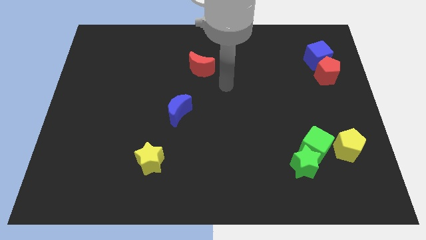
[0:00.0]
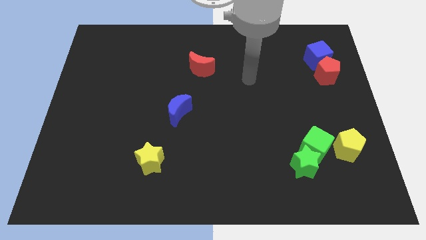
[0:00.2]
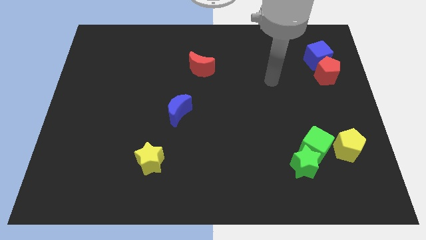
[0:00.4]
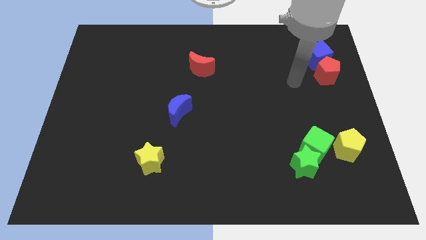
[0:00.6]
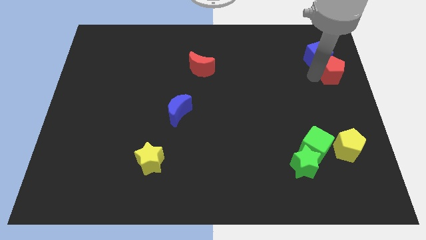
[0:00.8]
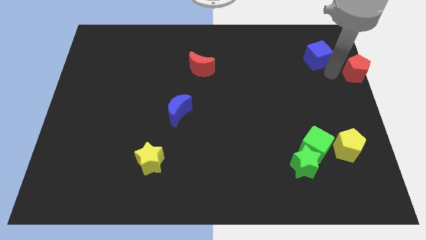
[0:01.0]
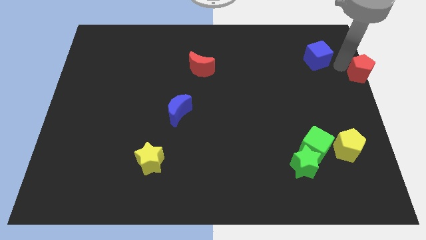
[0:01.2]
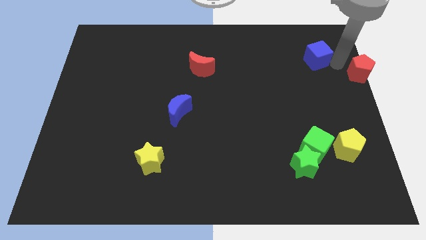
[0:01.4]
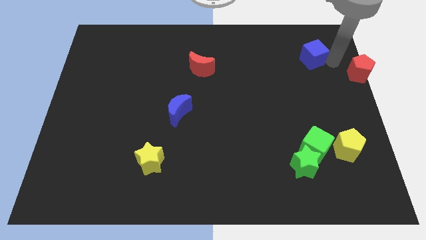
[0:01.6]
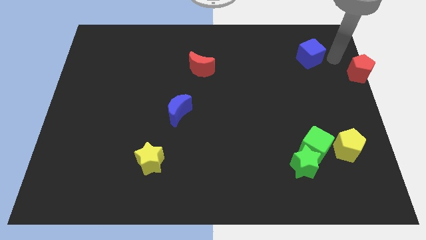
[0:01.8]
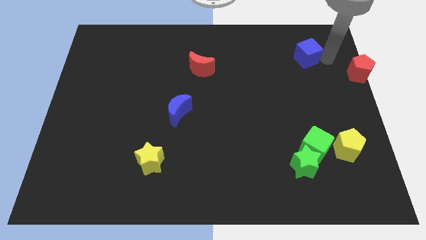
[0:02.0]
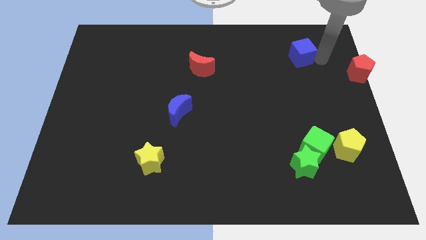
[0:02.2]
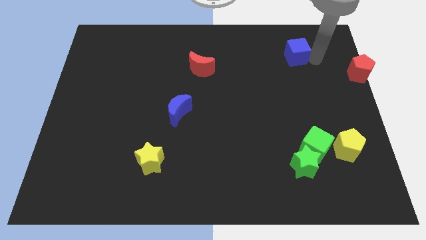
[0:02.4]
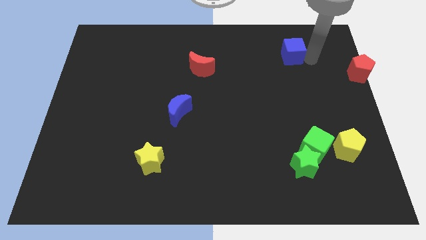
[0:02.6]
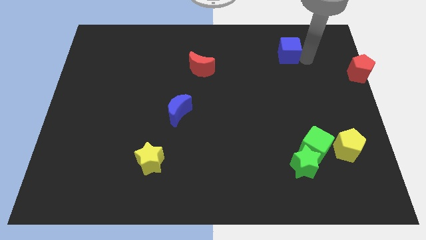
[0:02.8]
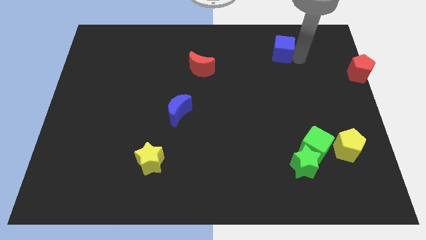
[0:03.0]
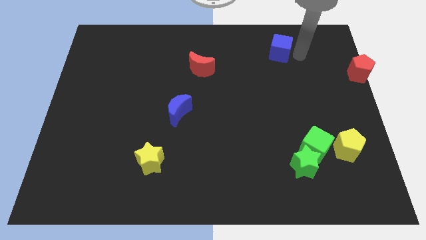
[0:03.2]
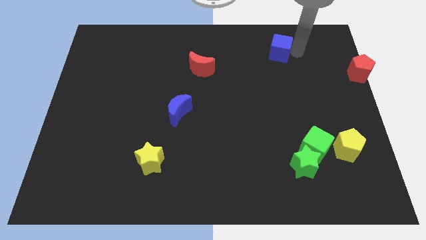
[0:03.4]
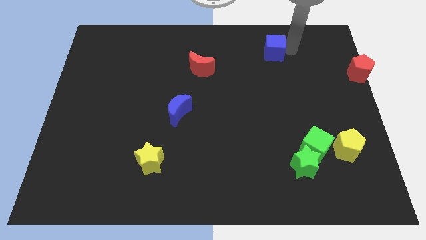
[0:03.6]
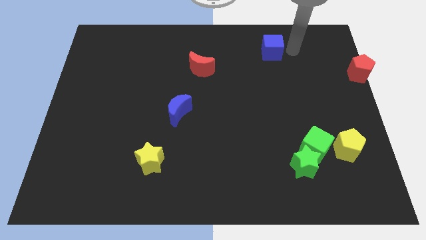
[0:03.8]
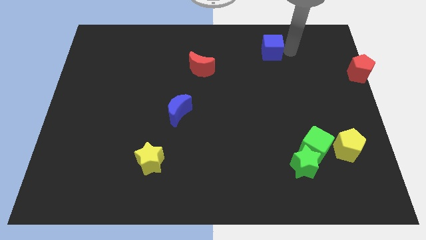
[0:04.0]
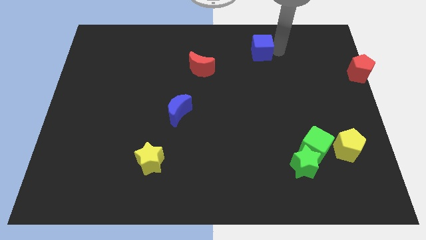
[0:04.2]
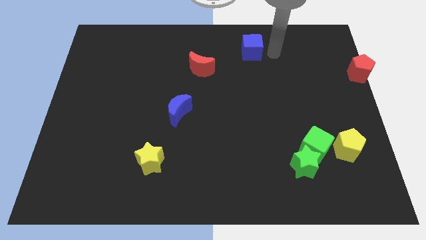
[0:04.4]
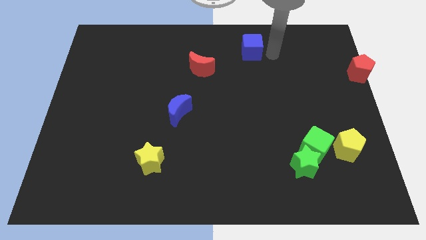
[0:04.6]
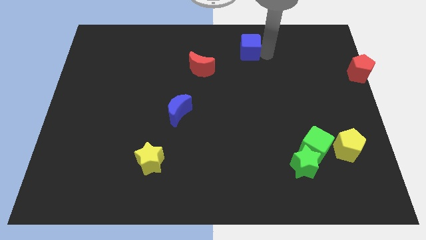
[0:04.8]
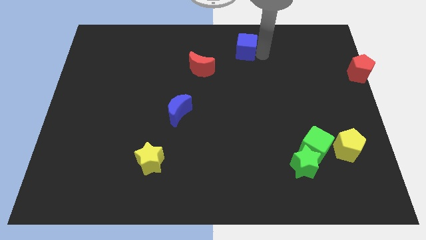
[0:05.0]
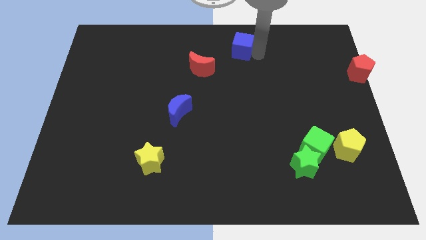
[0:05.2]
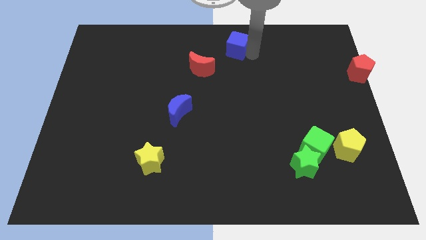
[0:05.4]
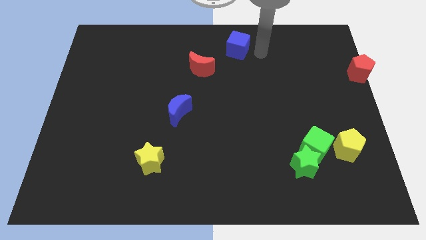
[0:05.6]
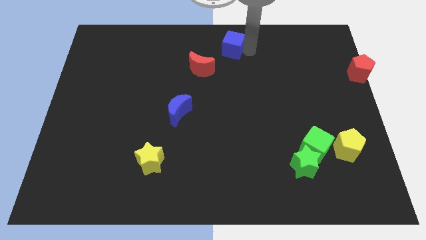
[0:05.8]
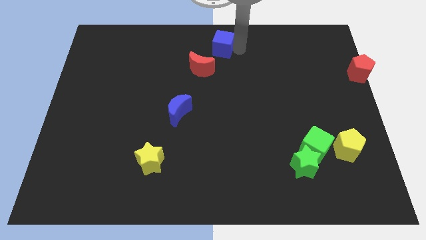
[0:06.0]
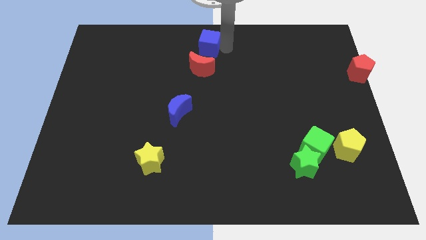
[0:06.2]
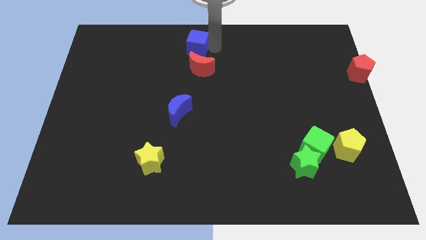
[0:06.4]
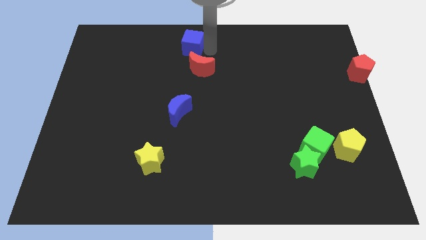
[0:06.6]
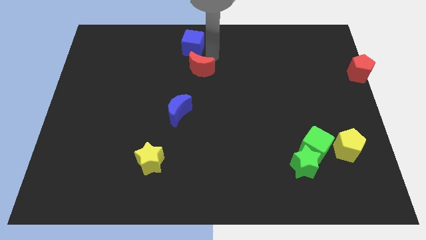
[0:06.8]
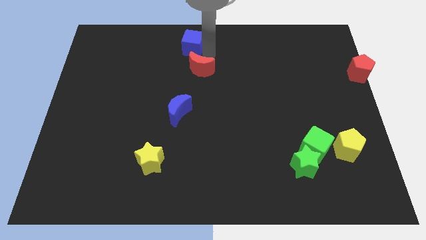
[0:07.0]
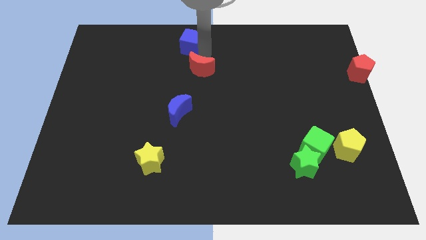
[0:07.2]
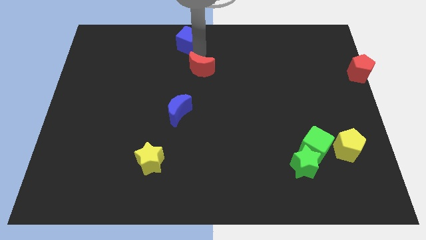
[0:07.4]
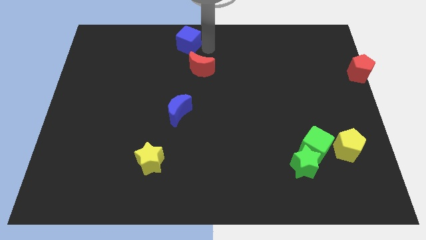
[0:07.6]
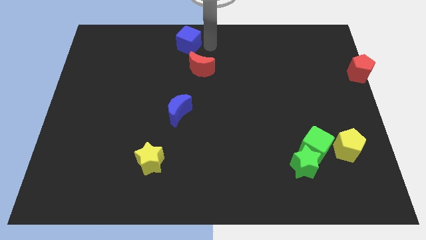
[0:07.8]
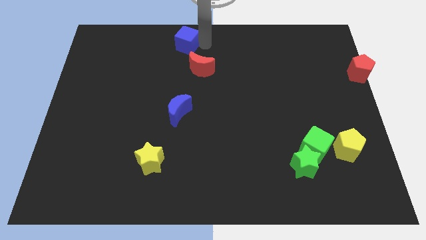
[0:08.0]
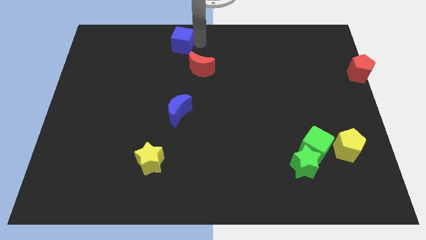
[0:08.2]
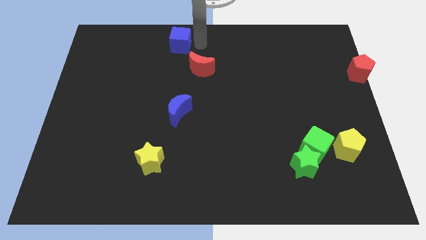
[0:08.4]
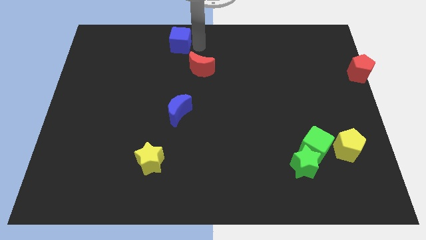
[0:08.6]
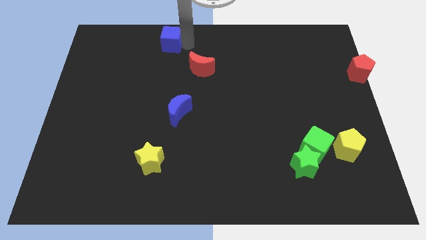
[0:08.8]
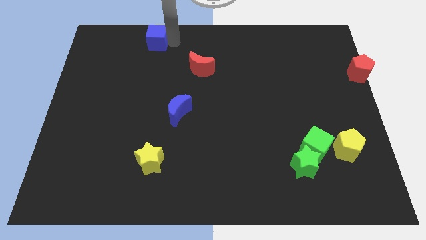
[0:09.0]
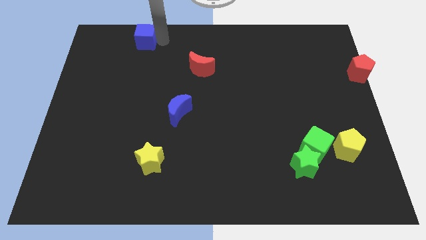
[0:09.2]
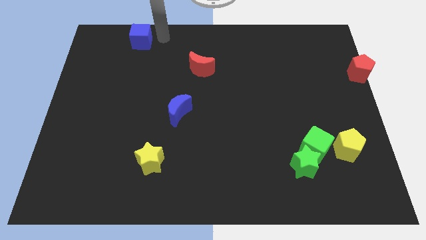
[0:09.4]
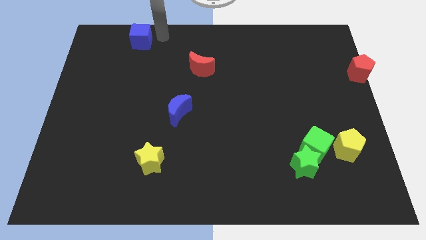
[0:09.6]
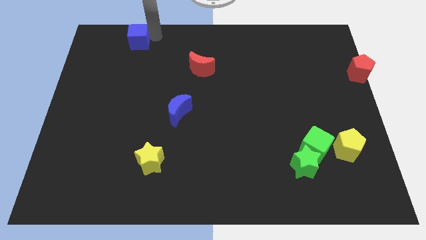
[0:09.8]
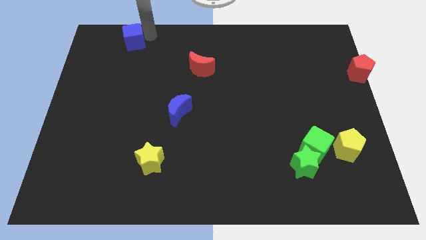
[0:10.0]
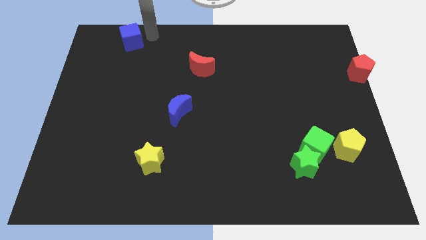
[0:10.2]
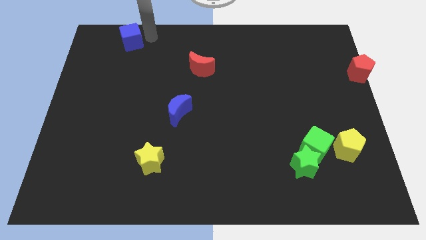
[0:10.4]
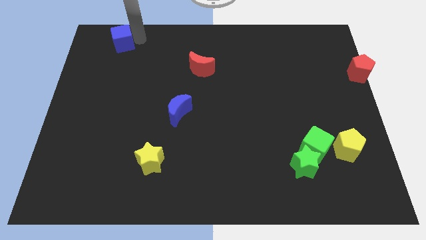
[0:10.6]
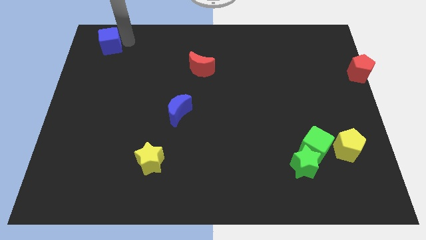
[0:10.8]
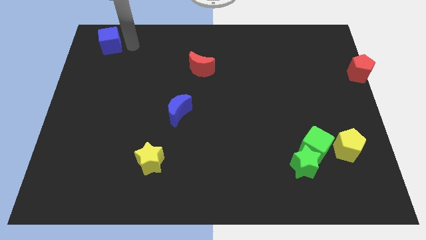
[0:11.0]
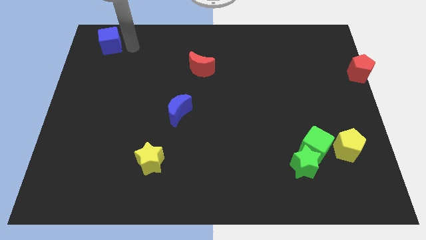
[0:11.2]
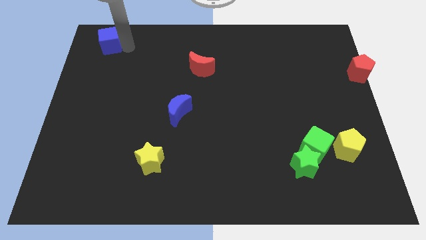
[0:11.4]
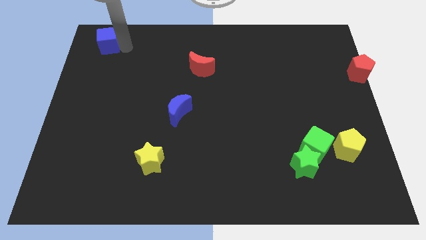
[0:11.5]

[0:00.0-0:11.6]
slide the blue cube to the top left
